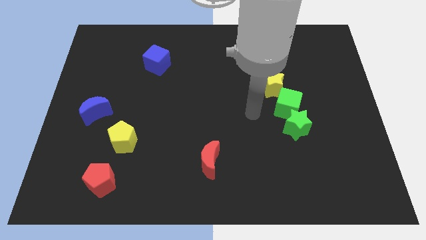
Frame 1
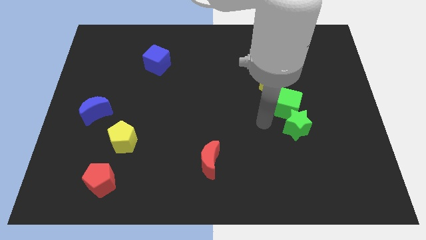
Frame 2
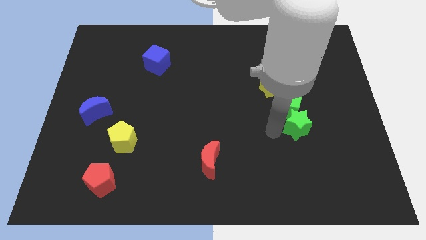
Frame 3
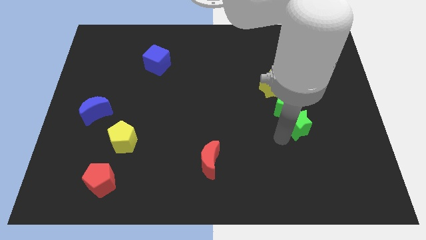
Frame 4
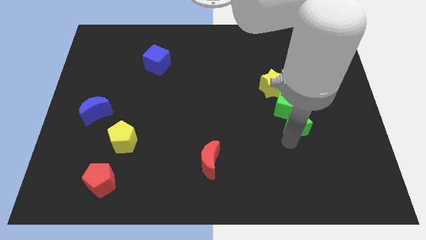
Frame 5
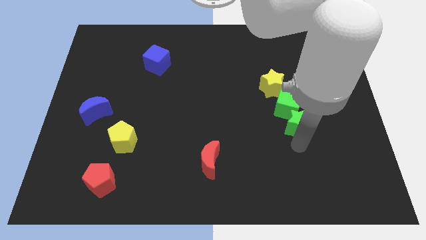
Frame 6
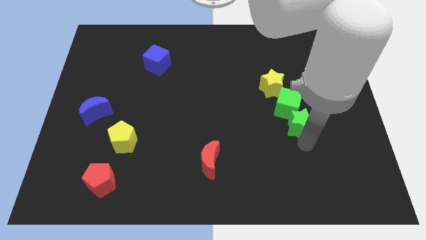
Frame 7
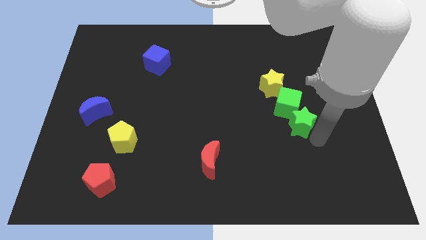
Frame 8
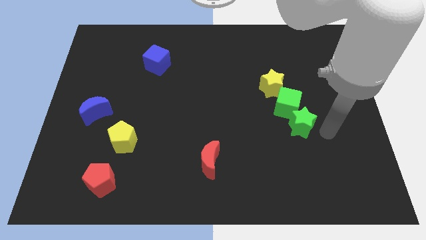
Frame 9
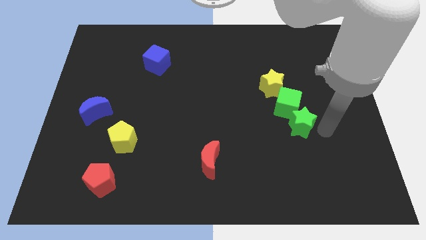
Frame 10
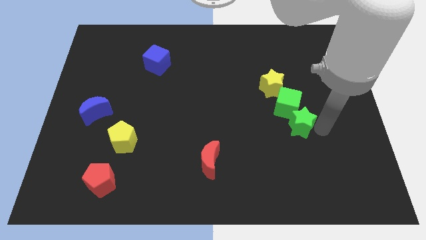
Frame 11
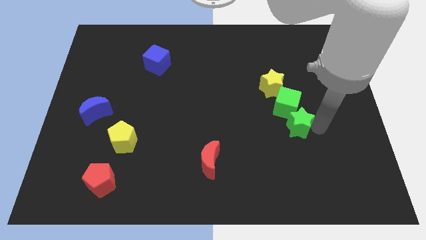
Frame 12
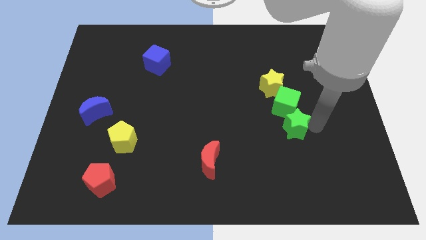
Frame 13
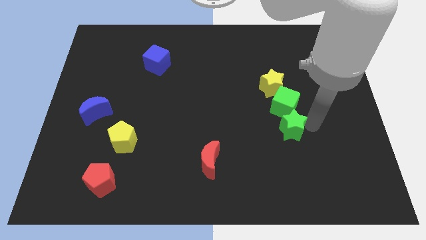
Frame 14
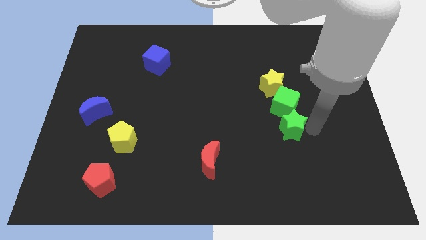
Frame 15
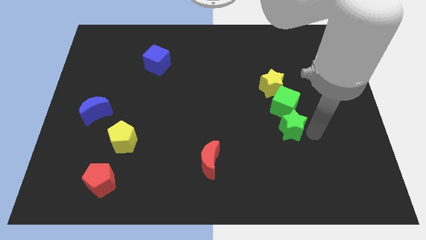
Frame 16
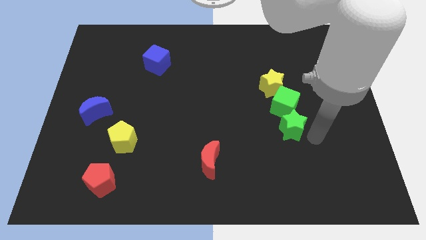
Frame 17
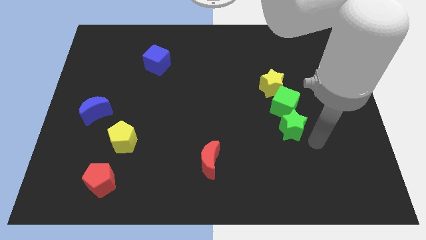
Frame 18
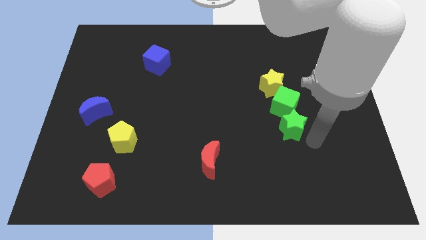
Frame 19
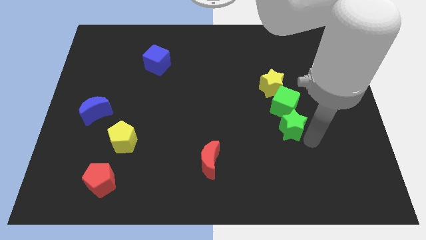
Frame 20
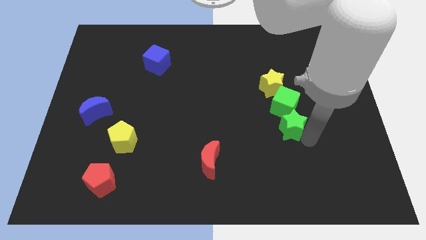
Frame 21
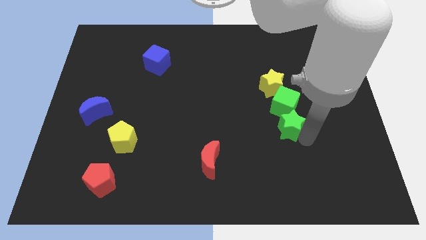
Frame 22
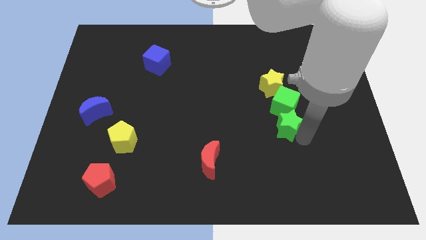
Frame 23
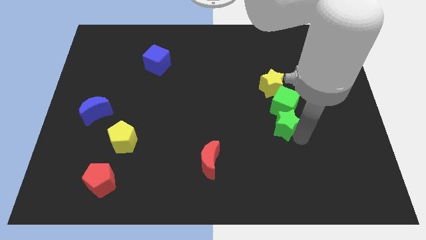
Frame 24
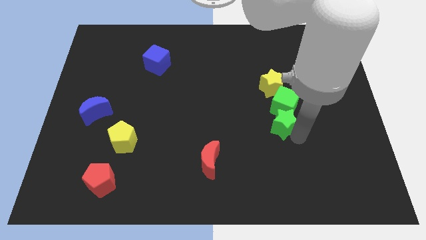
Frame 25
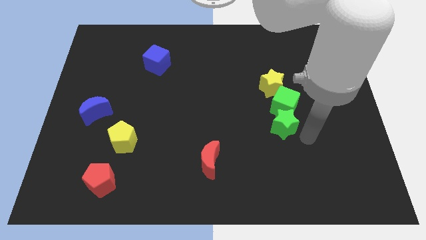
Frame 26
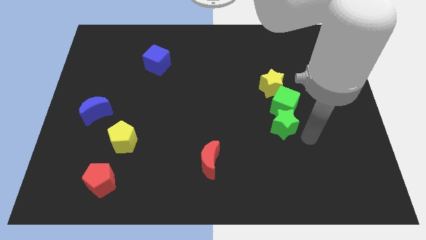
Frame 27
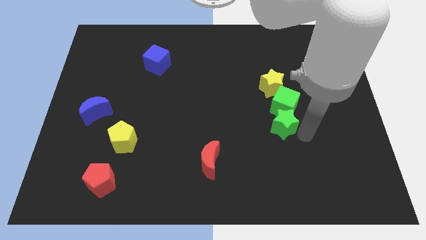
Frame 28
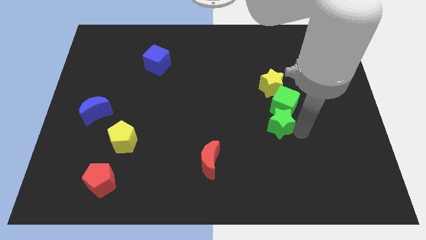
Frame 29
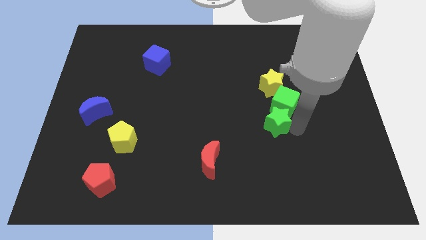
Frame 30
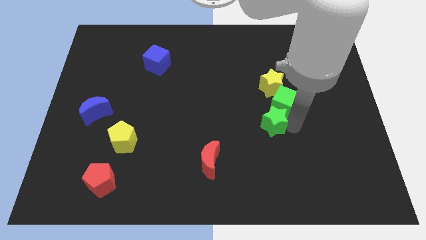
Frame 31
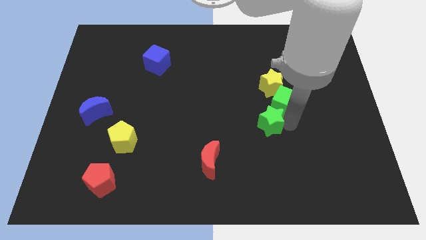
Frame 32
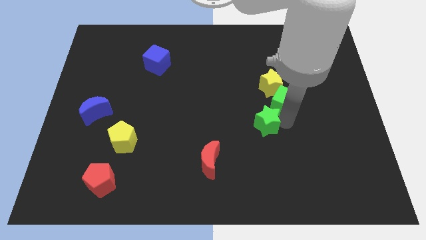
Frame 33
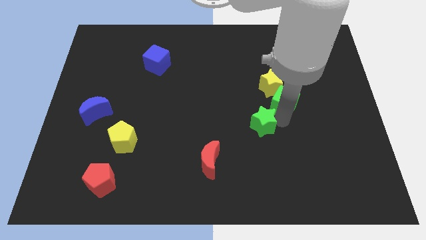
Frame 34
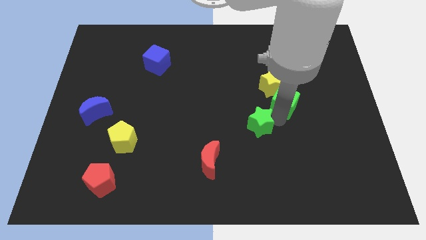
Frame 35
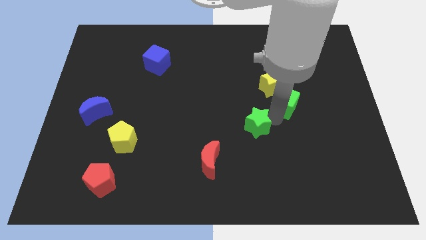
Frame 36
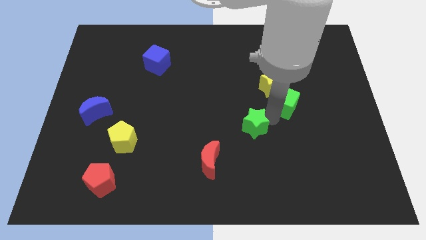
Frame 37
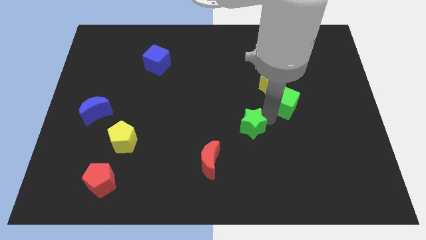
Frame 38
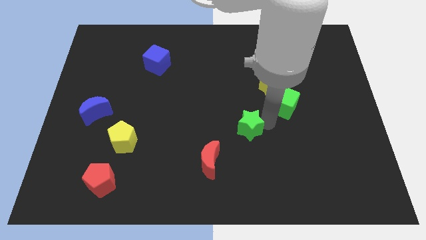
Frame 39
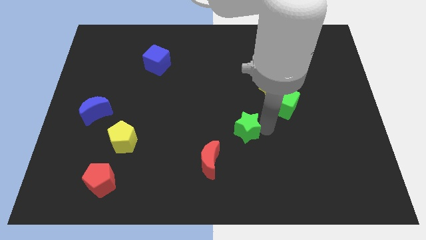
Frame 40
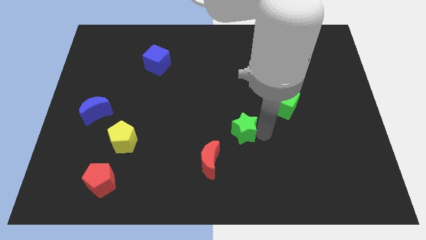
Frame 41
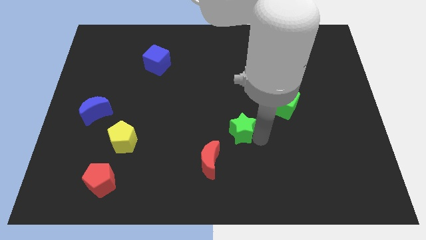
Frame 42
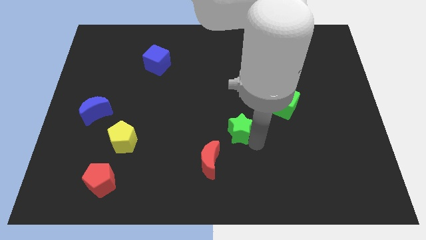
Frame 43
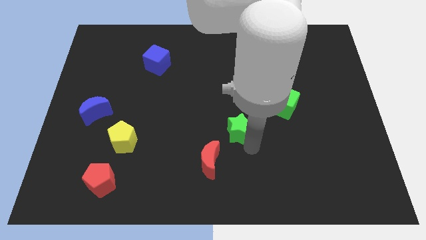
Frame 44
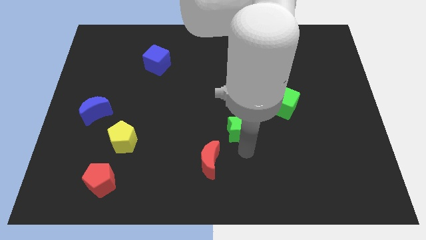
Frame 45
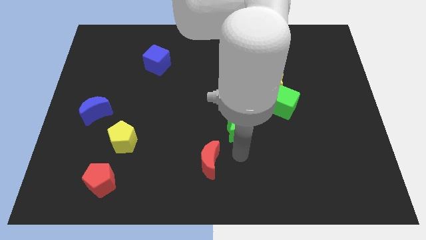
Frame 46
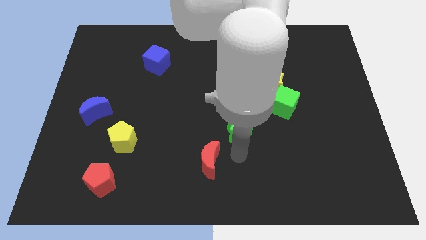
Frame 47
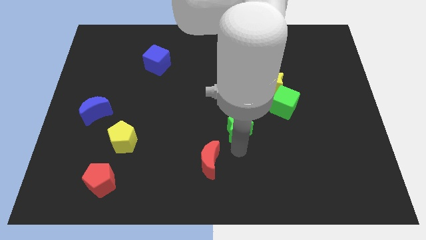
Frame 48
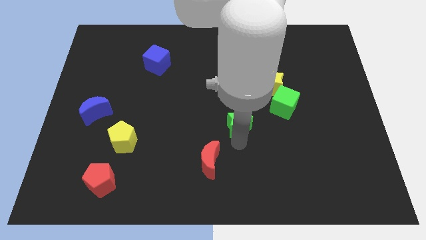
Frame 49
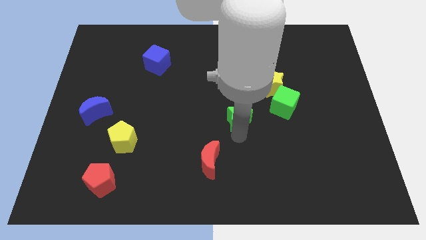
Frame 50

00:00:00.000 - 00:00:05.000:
put the green star to the left of the green cube

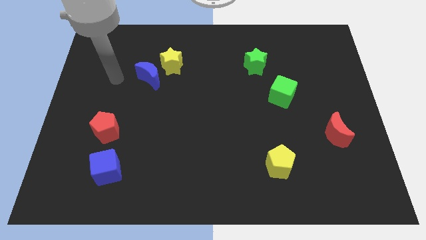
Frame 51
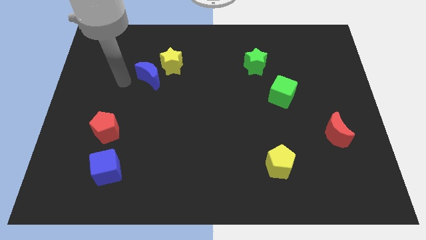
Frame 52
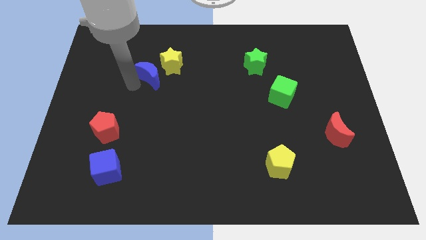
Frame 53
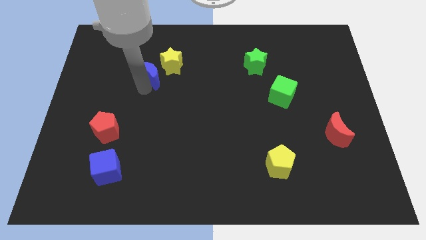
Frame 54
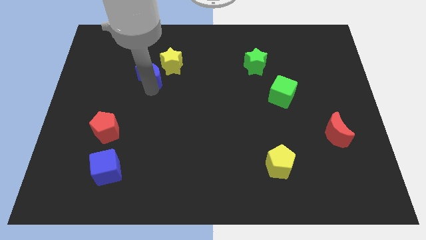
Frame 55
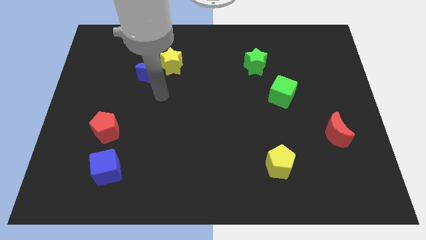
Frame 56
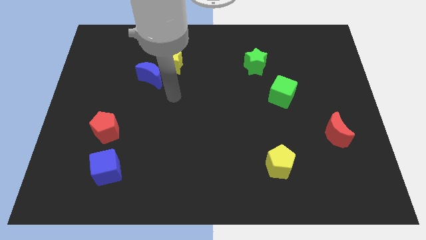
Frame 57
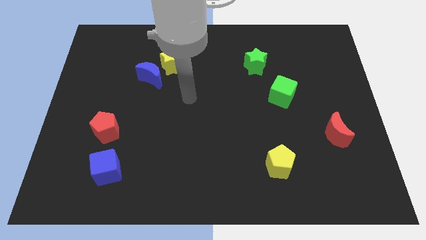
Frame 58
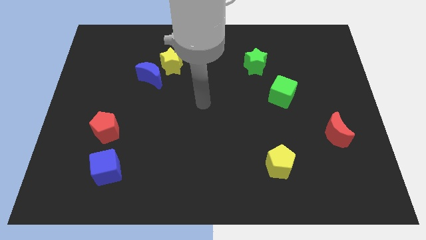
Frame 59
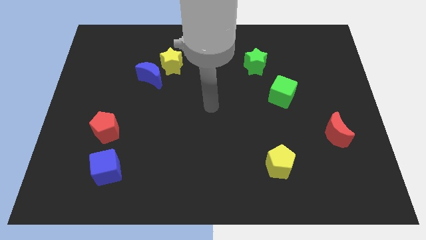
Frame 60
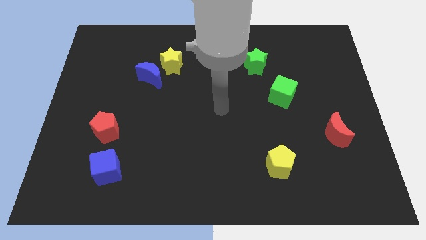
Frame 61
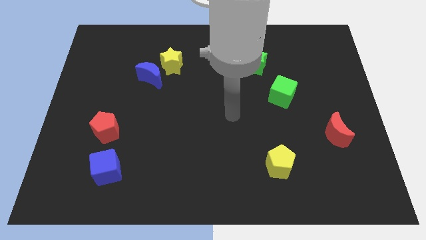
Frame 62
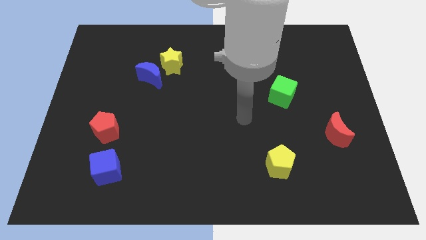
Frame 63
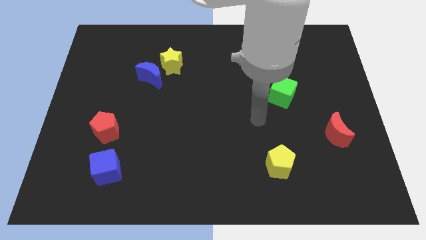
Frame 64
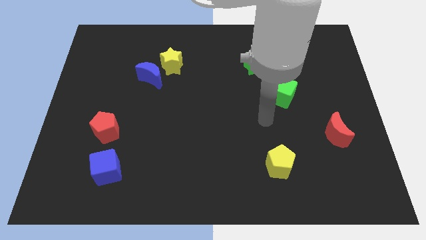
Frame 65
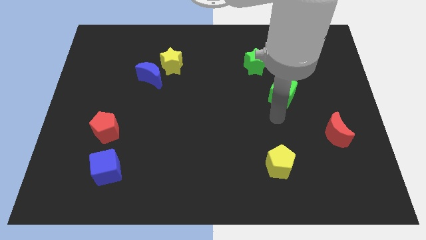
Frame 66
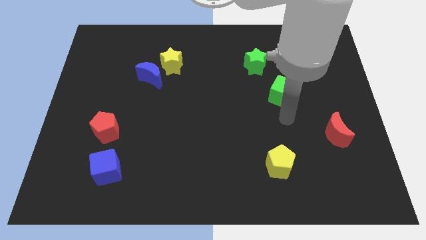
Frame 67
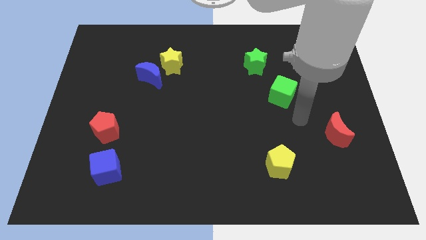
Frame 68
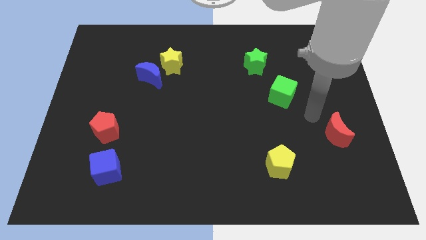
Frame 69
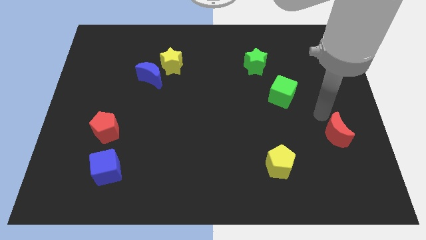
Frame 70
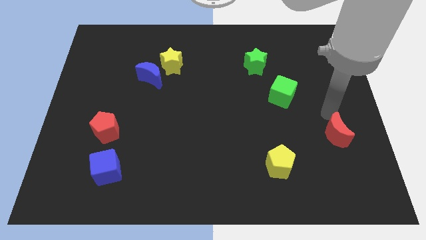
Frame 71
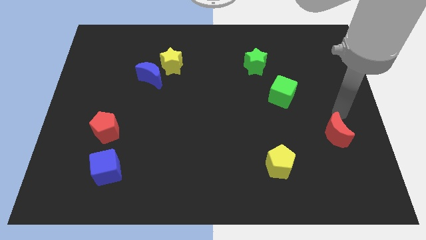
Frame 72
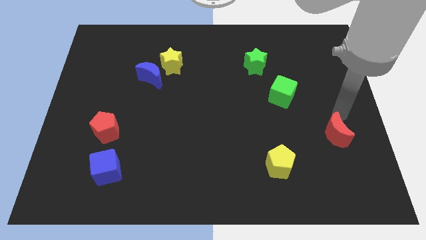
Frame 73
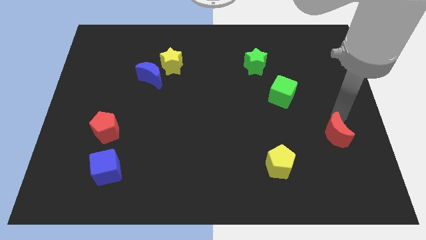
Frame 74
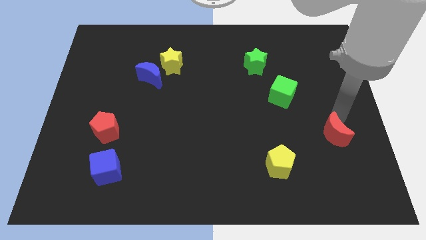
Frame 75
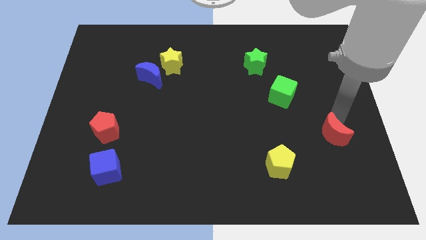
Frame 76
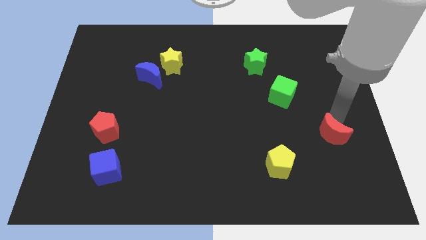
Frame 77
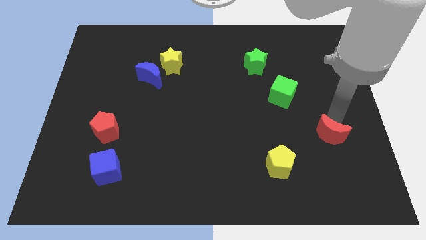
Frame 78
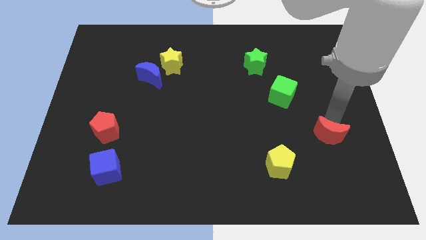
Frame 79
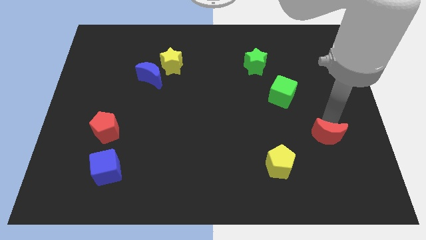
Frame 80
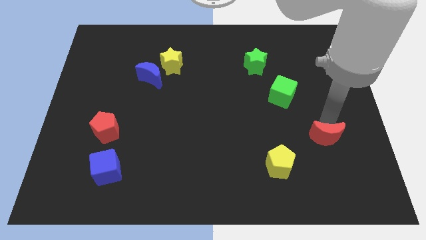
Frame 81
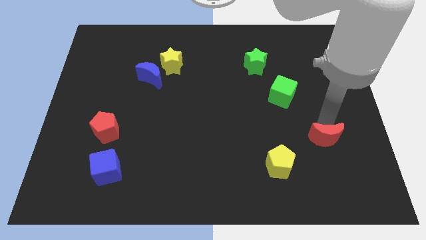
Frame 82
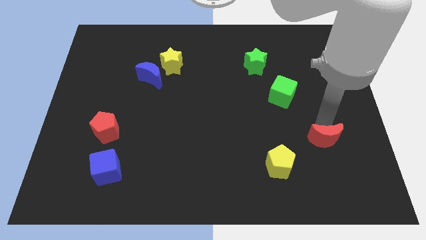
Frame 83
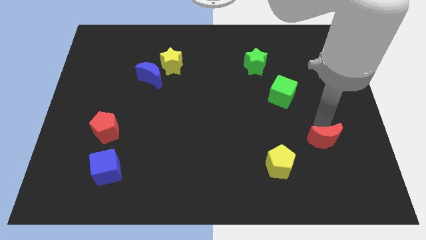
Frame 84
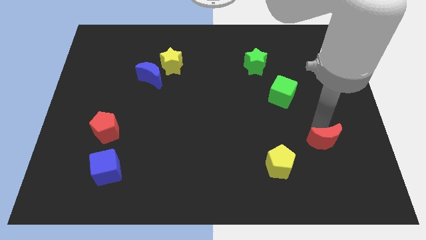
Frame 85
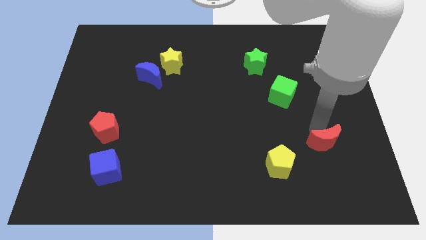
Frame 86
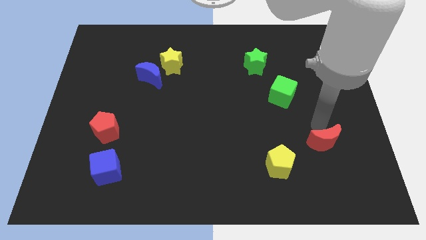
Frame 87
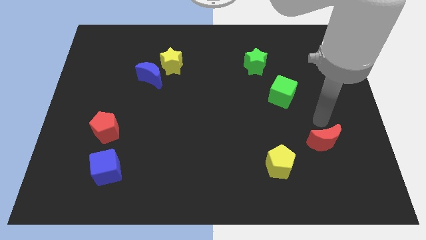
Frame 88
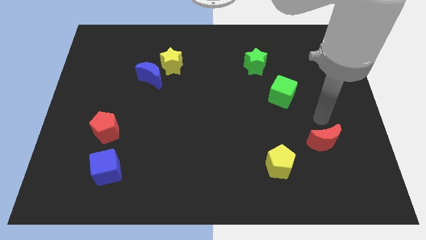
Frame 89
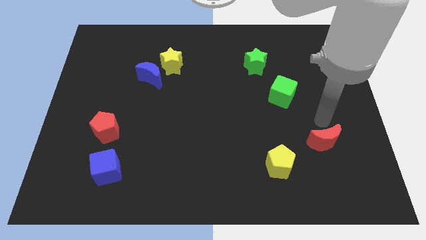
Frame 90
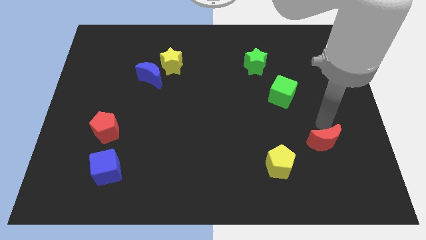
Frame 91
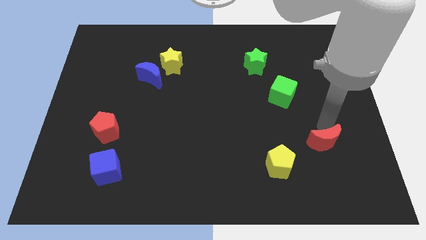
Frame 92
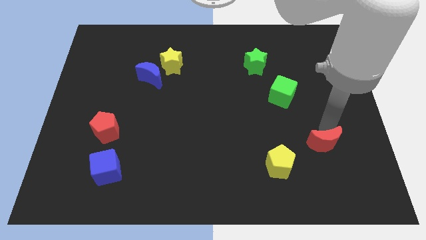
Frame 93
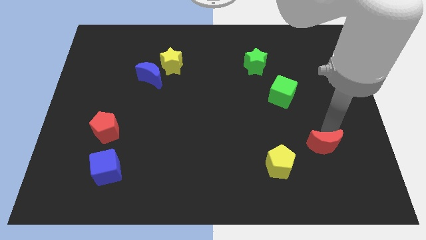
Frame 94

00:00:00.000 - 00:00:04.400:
move the red moon to the right of the yellow pentagon
